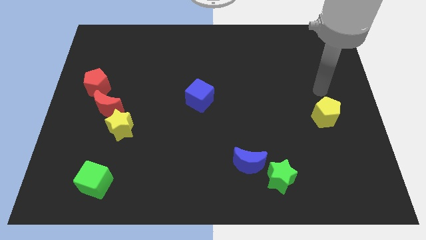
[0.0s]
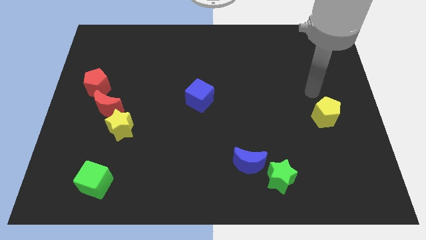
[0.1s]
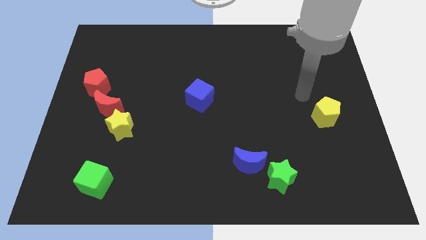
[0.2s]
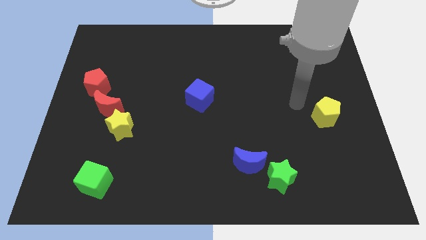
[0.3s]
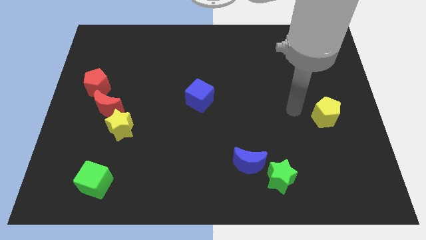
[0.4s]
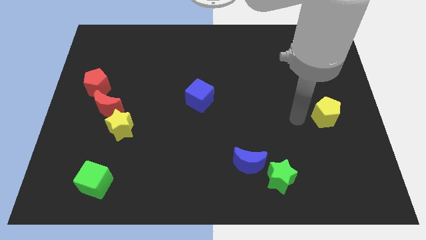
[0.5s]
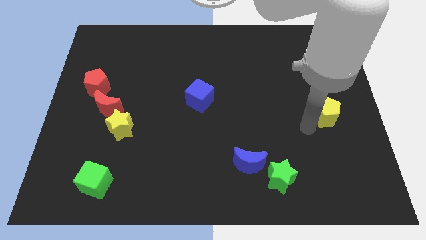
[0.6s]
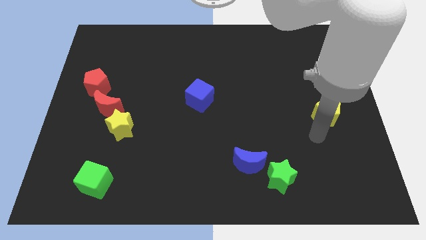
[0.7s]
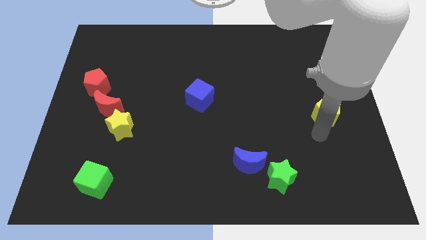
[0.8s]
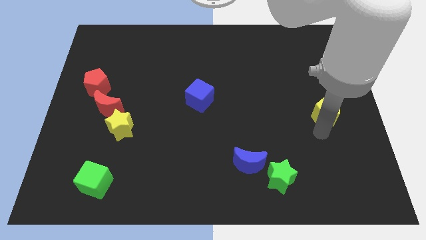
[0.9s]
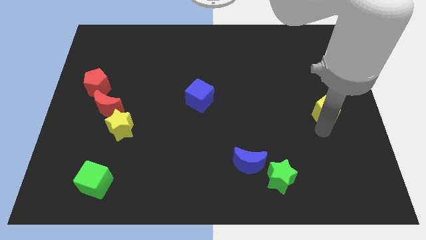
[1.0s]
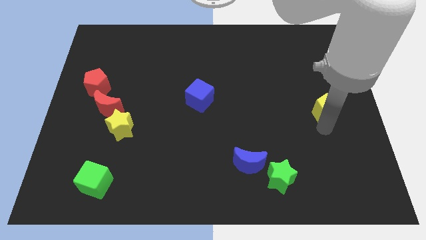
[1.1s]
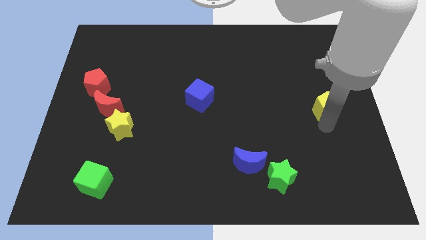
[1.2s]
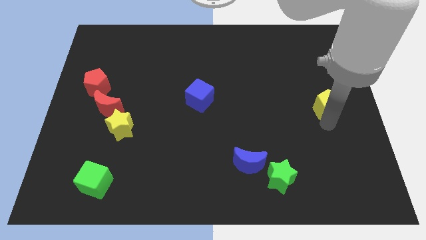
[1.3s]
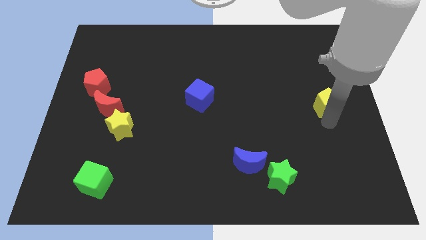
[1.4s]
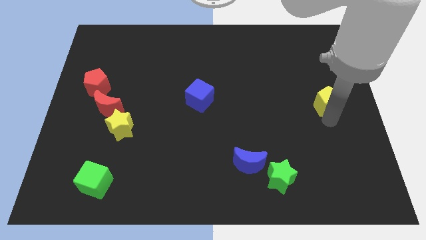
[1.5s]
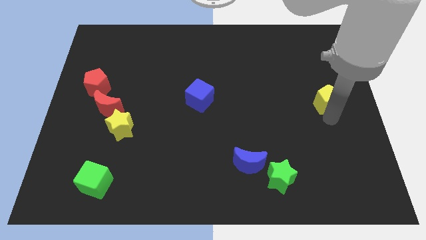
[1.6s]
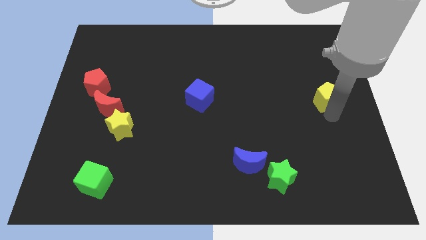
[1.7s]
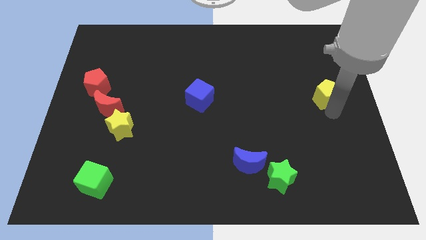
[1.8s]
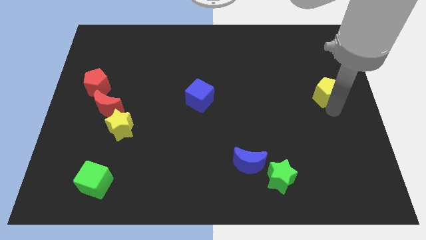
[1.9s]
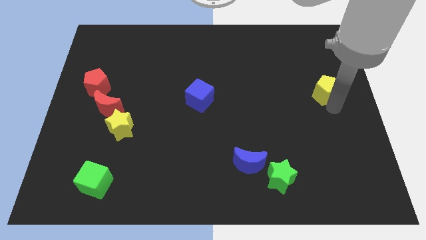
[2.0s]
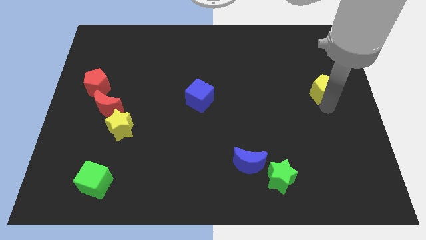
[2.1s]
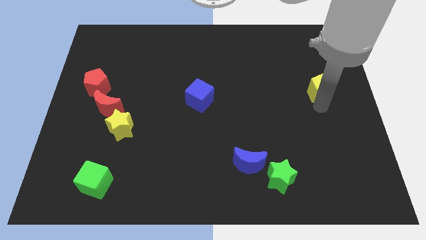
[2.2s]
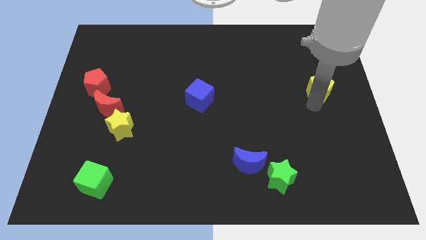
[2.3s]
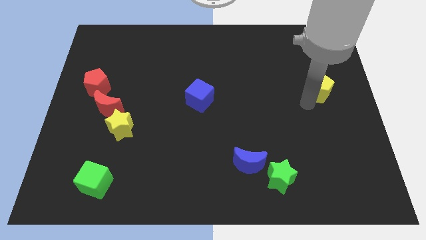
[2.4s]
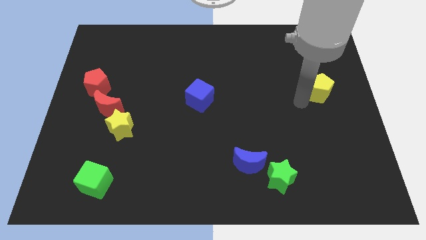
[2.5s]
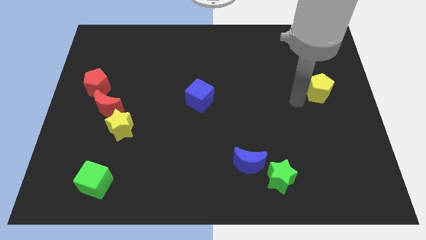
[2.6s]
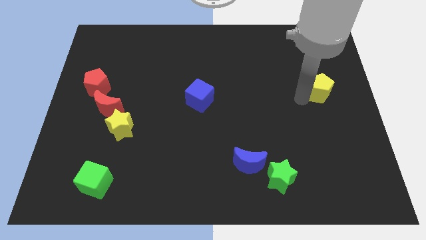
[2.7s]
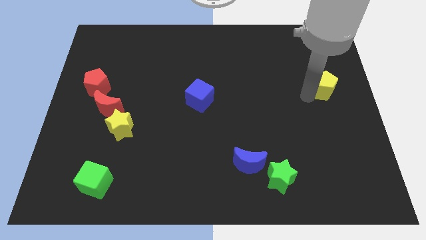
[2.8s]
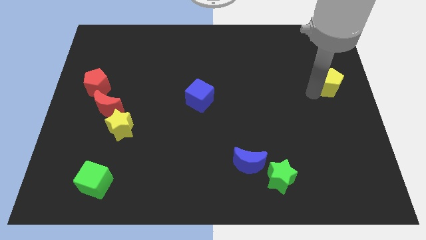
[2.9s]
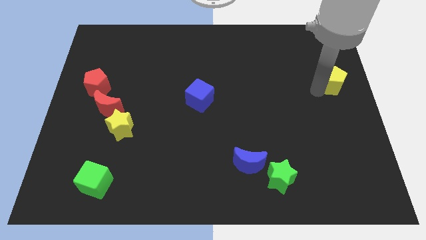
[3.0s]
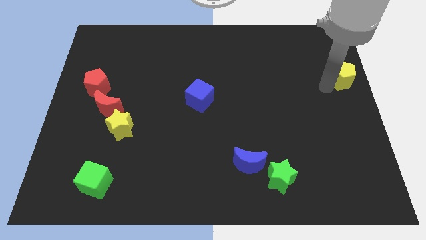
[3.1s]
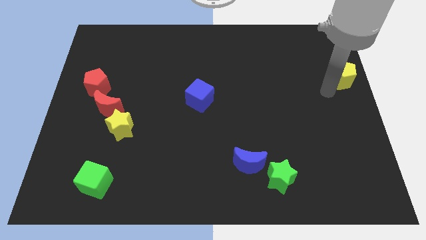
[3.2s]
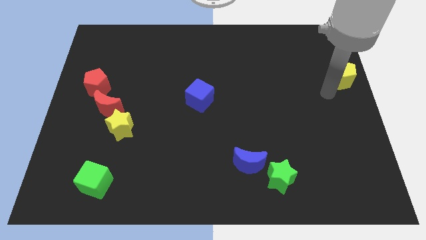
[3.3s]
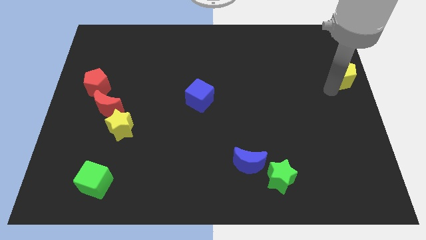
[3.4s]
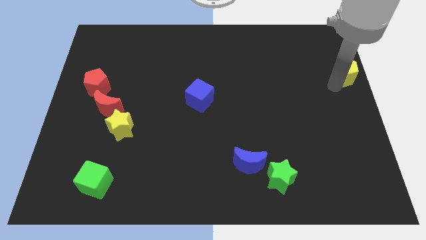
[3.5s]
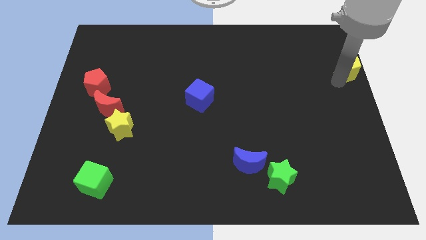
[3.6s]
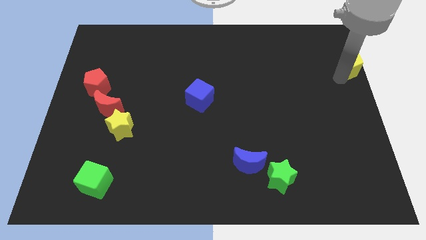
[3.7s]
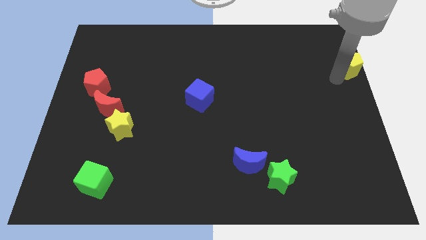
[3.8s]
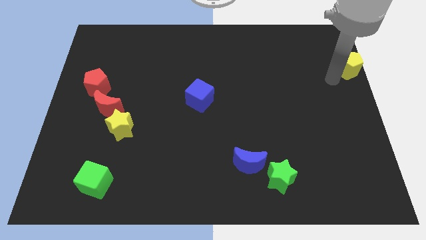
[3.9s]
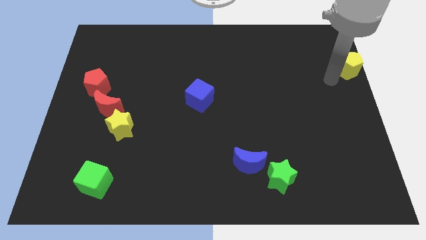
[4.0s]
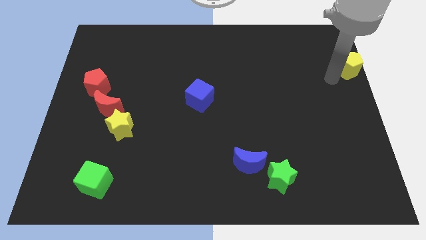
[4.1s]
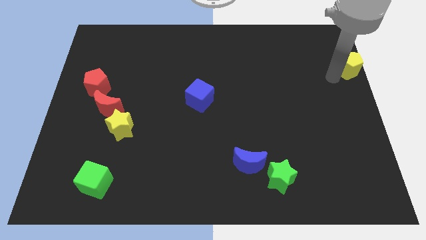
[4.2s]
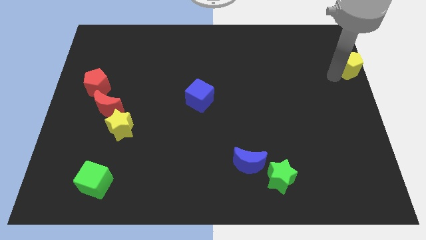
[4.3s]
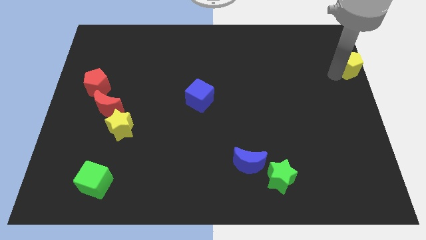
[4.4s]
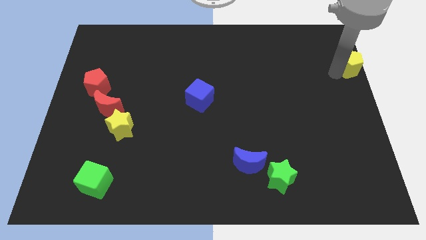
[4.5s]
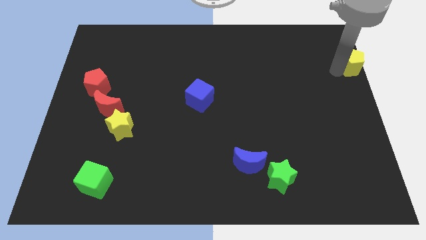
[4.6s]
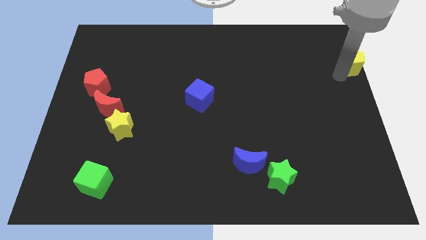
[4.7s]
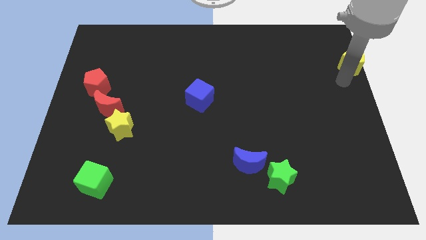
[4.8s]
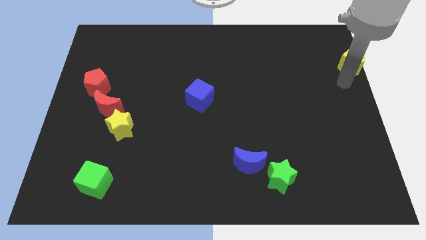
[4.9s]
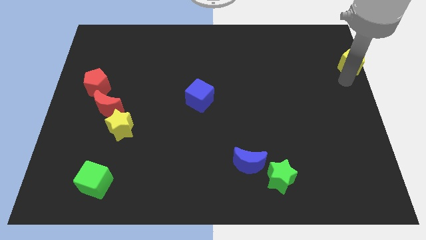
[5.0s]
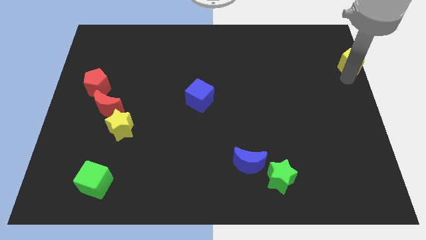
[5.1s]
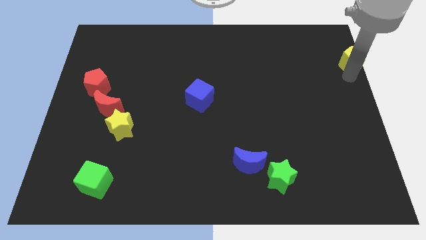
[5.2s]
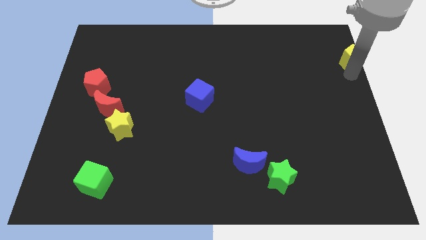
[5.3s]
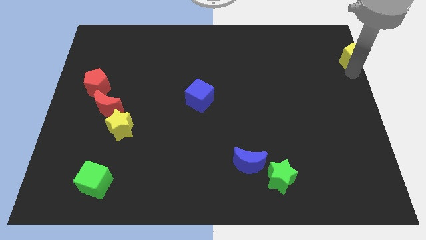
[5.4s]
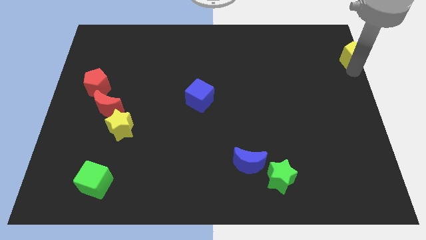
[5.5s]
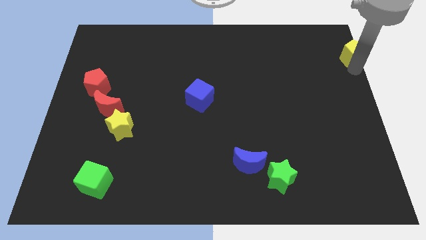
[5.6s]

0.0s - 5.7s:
push the yellow pentagon to the top right of the board
